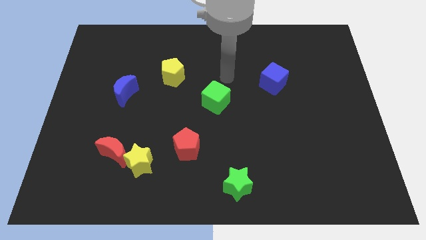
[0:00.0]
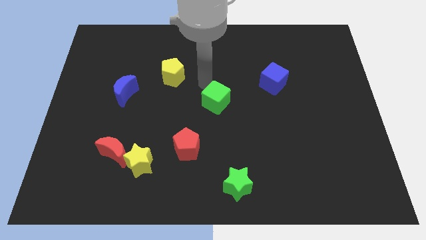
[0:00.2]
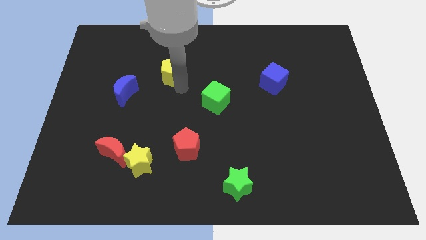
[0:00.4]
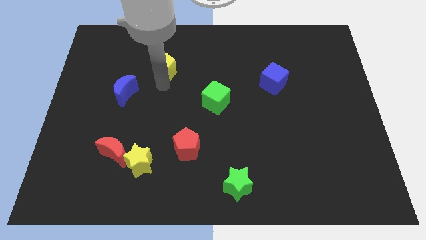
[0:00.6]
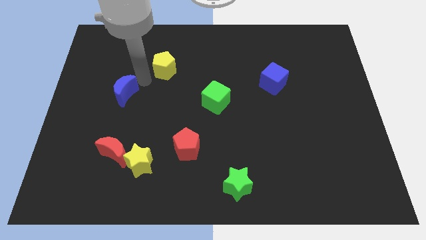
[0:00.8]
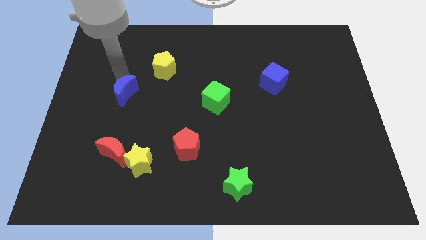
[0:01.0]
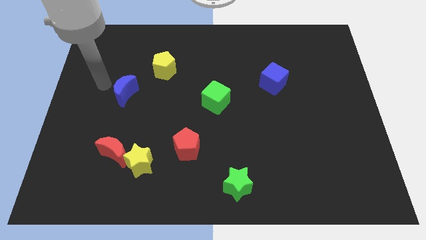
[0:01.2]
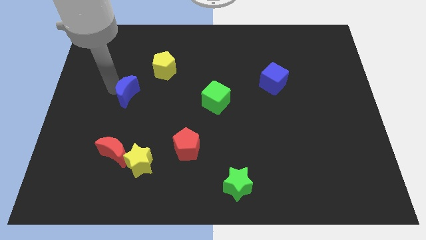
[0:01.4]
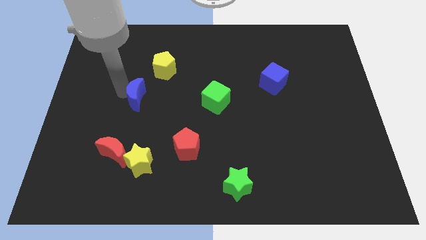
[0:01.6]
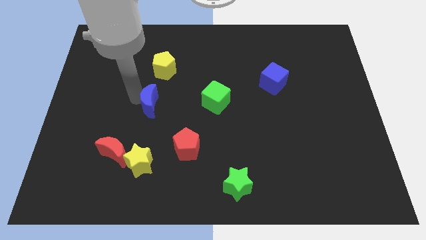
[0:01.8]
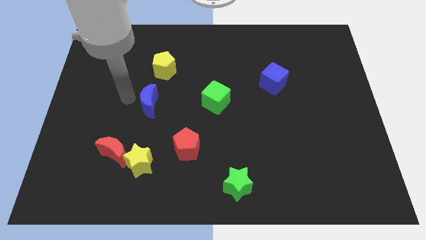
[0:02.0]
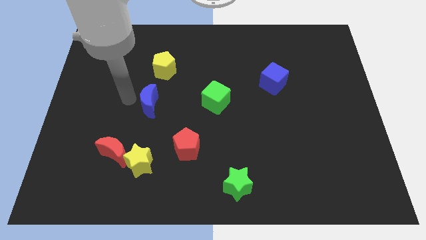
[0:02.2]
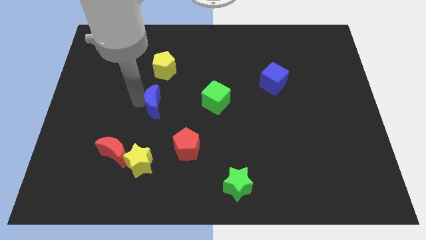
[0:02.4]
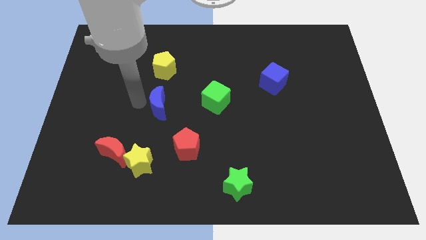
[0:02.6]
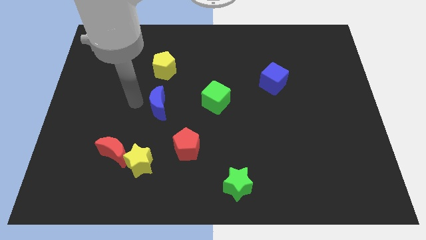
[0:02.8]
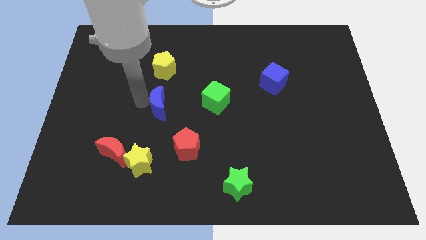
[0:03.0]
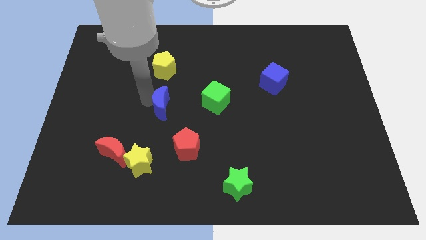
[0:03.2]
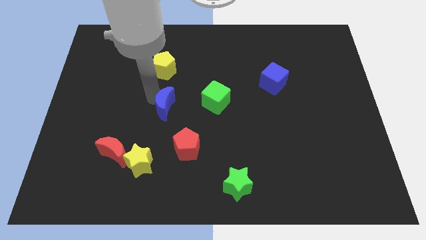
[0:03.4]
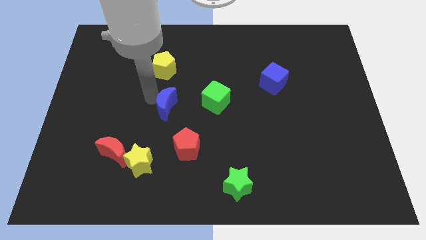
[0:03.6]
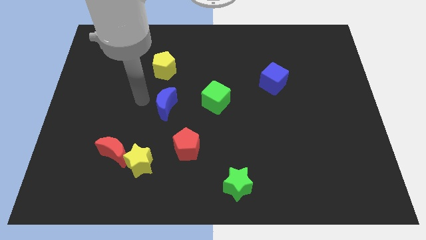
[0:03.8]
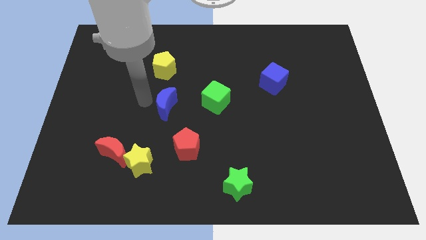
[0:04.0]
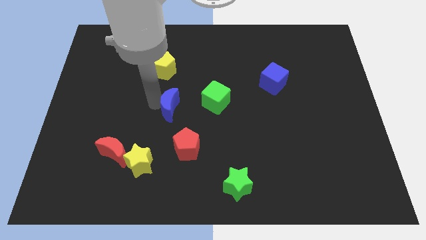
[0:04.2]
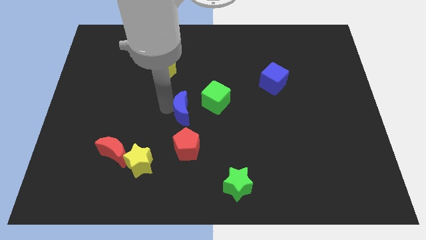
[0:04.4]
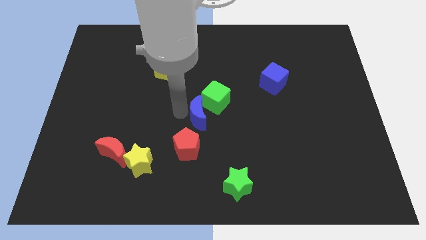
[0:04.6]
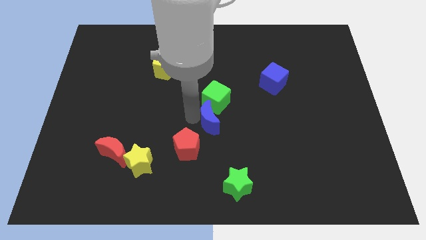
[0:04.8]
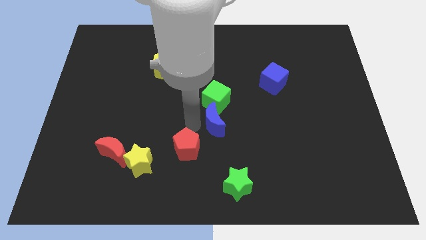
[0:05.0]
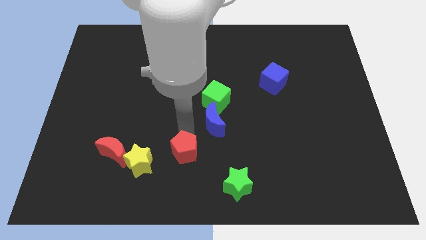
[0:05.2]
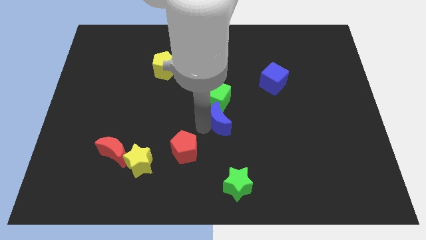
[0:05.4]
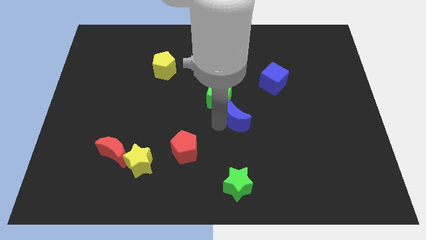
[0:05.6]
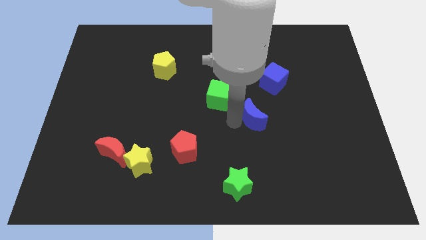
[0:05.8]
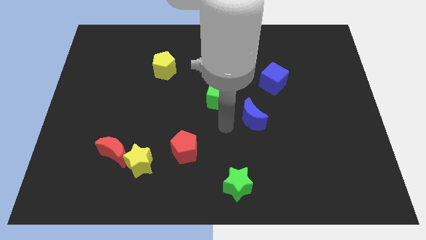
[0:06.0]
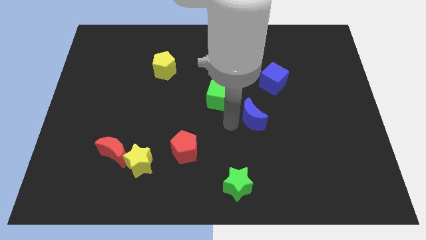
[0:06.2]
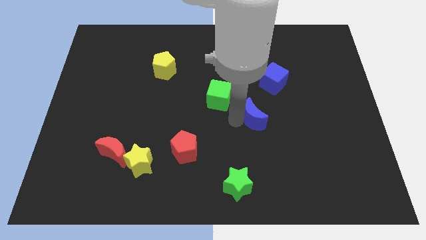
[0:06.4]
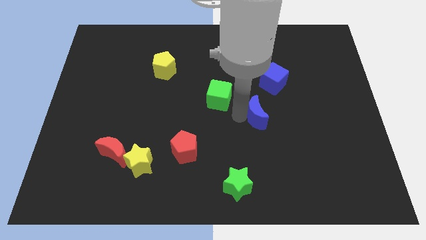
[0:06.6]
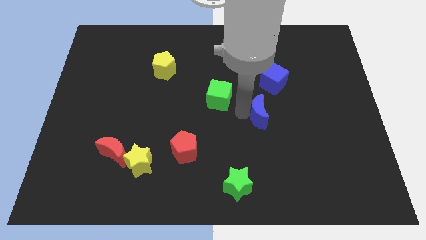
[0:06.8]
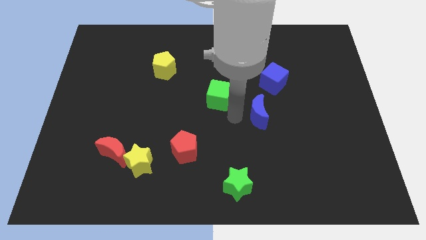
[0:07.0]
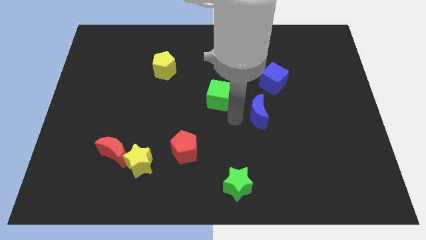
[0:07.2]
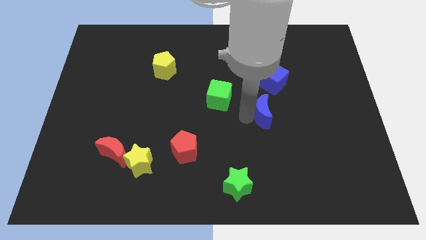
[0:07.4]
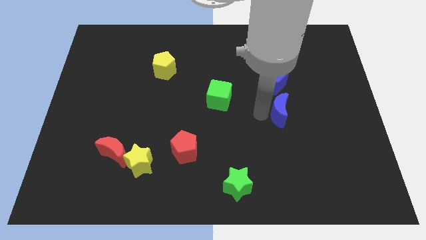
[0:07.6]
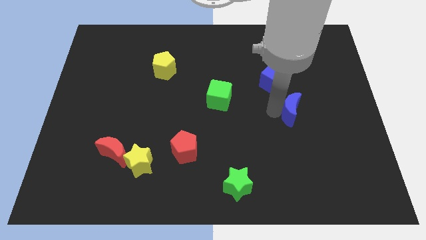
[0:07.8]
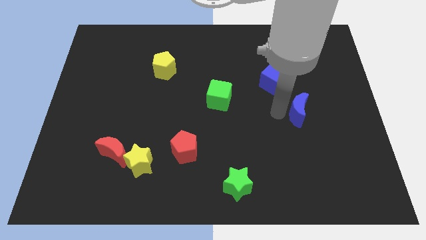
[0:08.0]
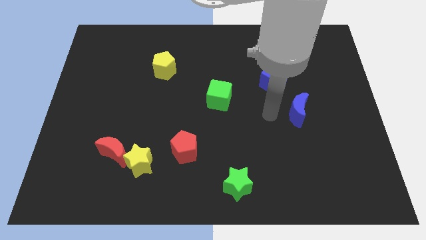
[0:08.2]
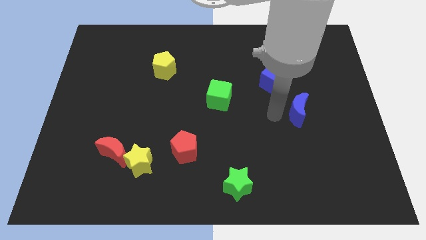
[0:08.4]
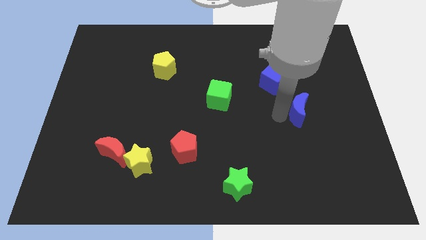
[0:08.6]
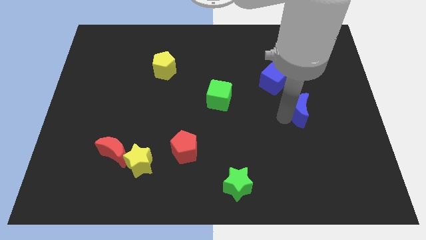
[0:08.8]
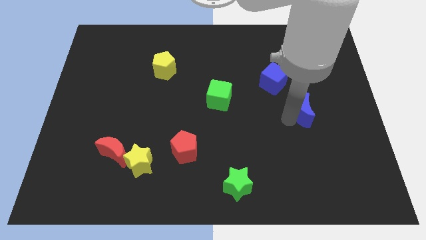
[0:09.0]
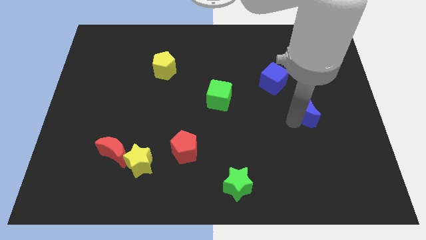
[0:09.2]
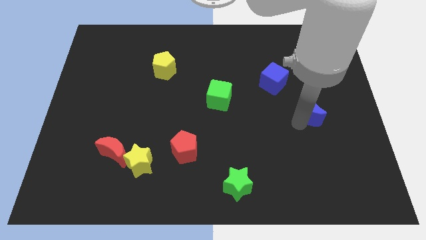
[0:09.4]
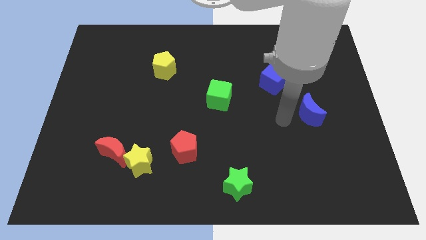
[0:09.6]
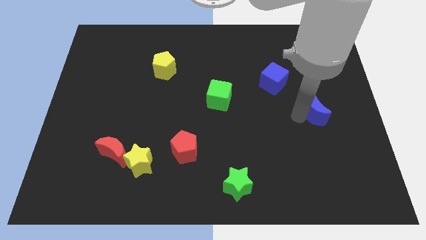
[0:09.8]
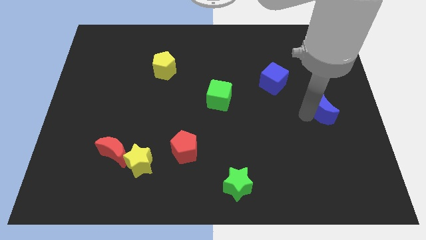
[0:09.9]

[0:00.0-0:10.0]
put the blue moon to the right side of the board

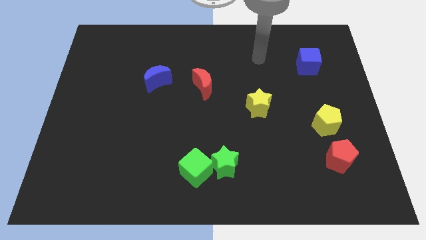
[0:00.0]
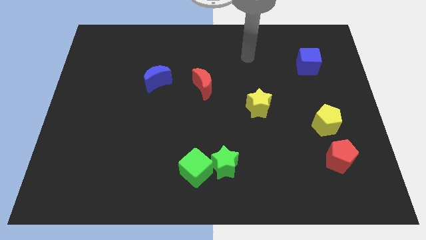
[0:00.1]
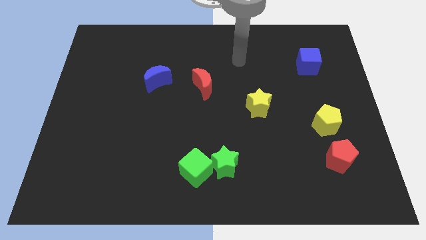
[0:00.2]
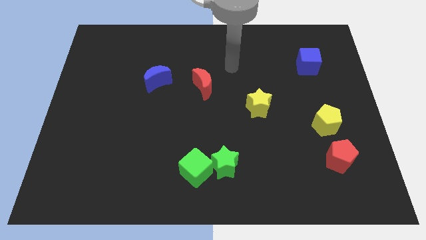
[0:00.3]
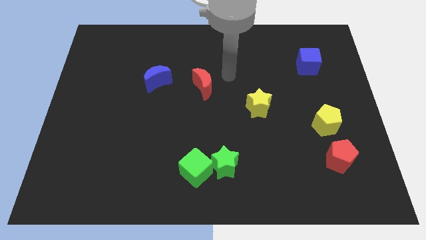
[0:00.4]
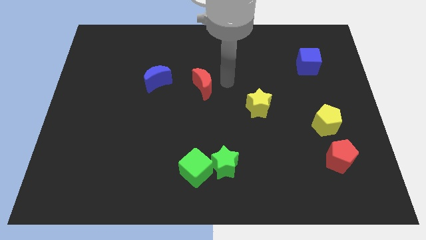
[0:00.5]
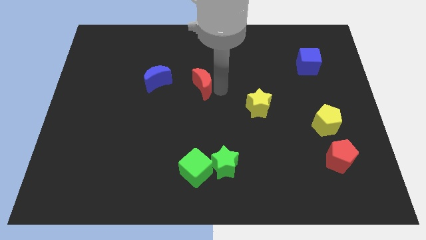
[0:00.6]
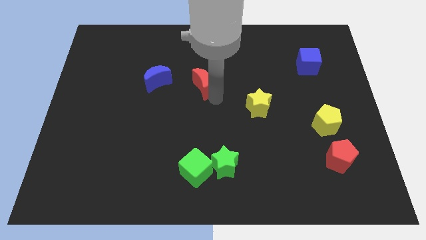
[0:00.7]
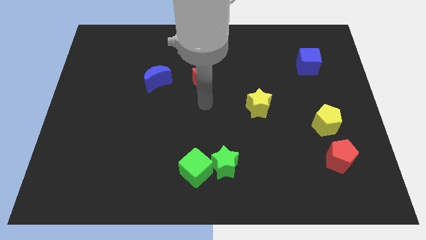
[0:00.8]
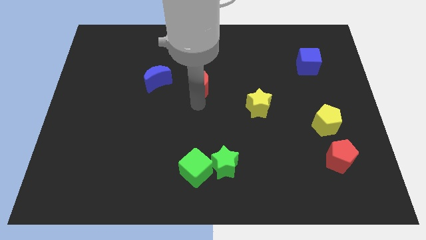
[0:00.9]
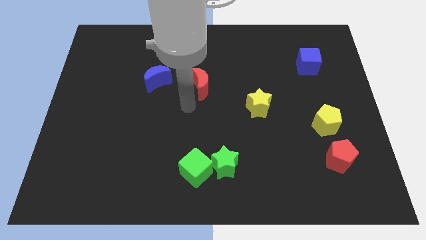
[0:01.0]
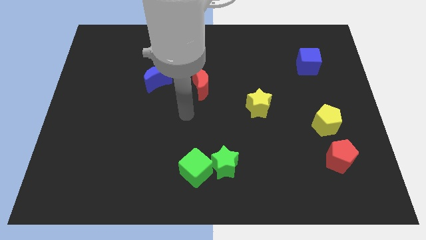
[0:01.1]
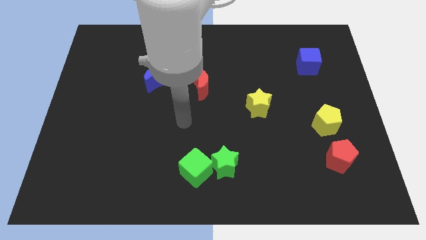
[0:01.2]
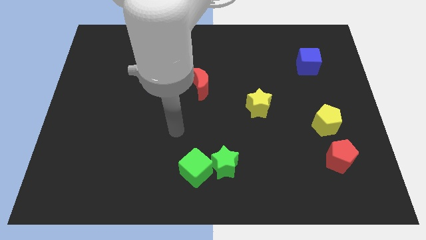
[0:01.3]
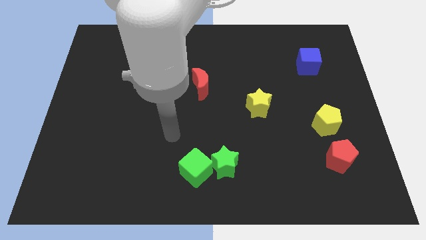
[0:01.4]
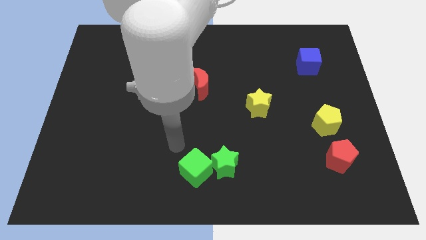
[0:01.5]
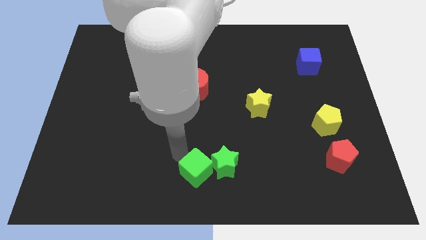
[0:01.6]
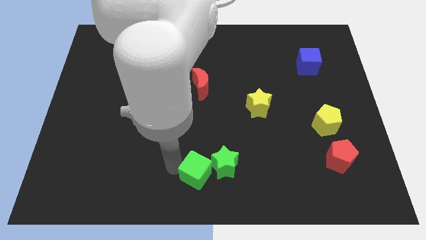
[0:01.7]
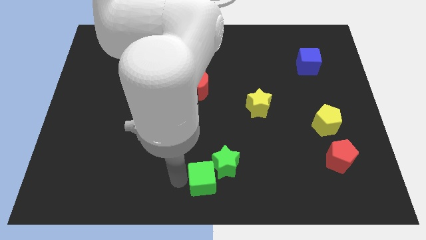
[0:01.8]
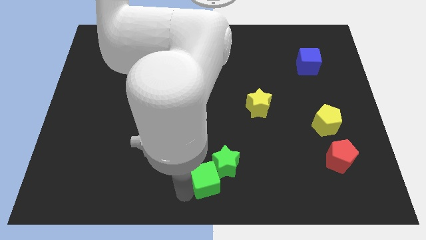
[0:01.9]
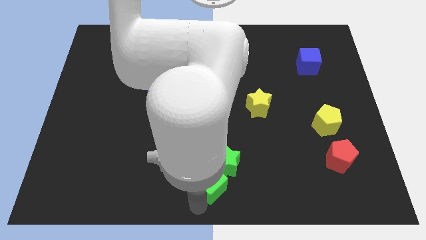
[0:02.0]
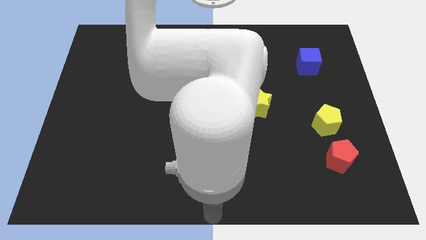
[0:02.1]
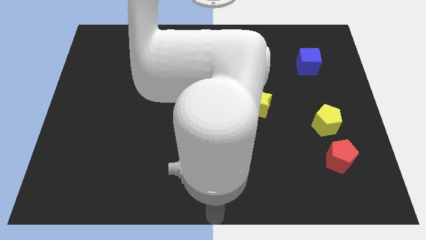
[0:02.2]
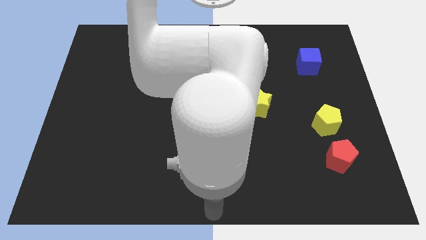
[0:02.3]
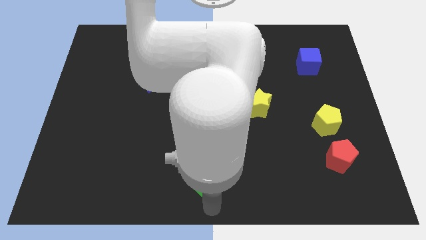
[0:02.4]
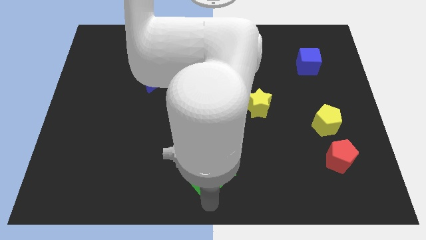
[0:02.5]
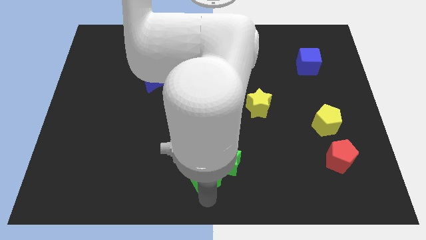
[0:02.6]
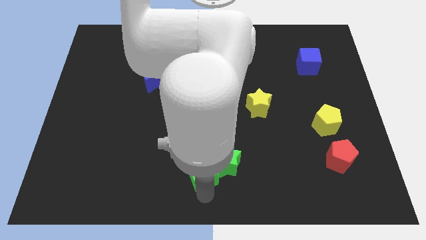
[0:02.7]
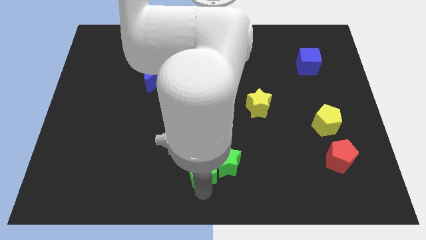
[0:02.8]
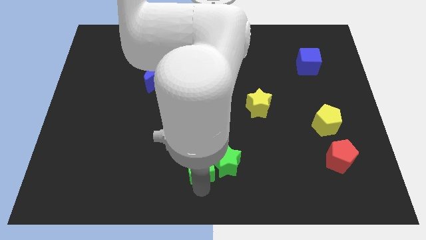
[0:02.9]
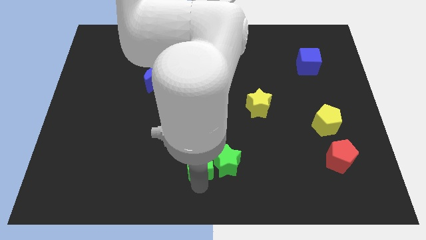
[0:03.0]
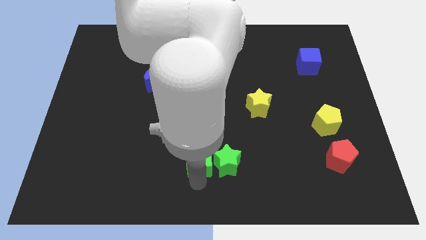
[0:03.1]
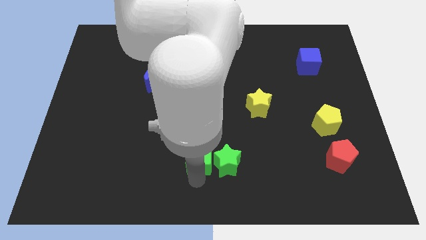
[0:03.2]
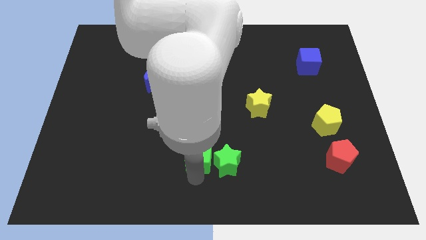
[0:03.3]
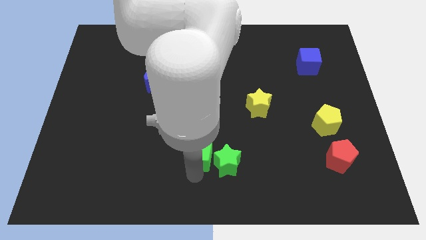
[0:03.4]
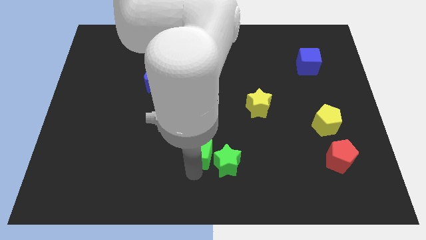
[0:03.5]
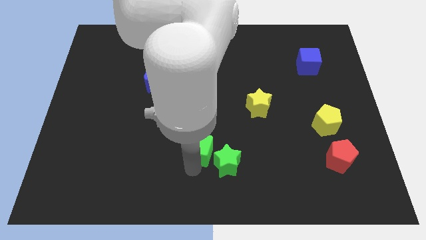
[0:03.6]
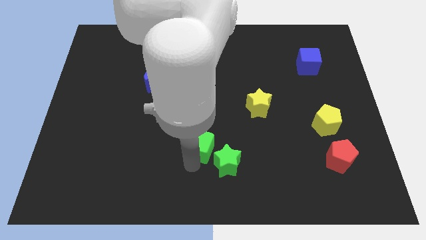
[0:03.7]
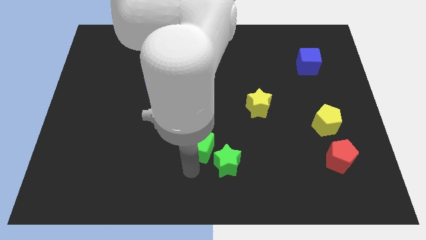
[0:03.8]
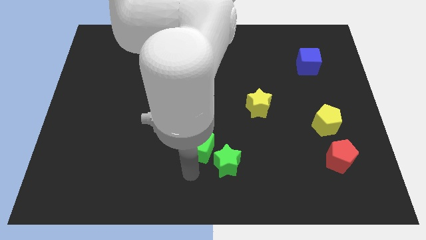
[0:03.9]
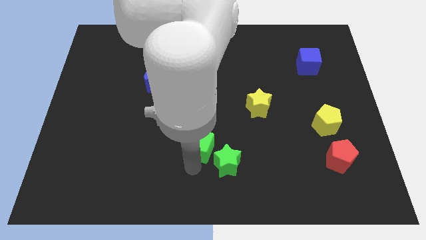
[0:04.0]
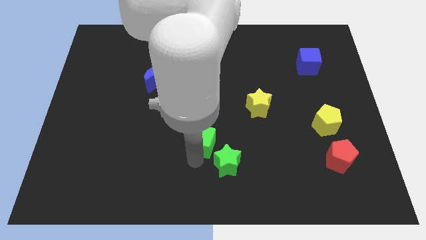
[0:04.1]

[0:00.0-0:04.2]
push the green cube to the center
